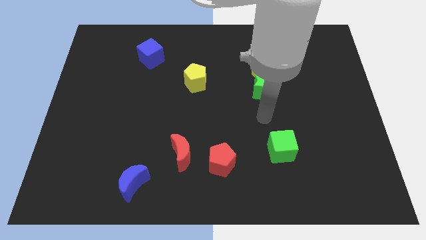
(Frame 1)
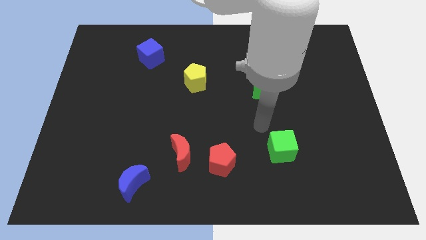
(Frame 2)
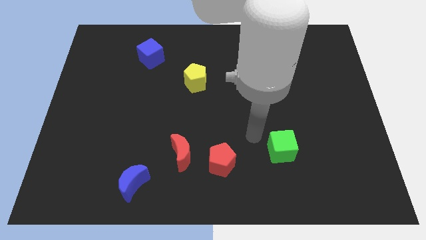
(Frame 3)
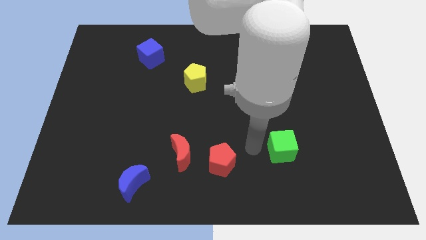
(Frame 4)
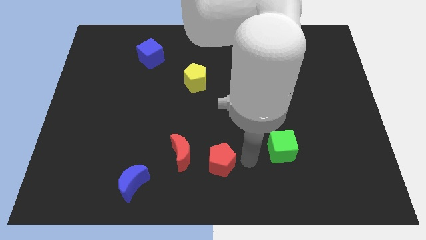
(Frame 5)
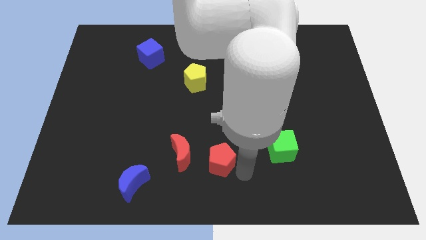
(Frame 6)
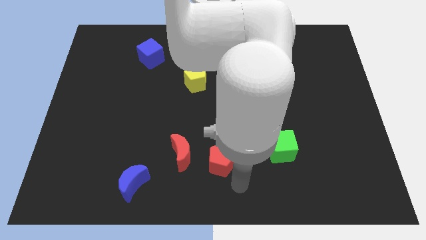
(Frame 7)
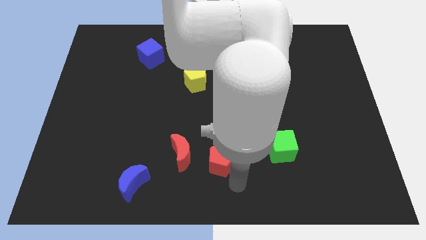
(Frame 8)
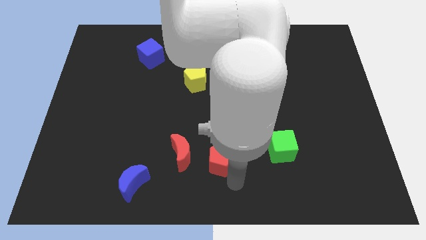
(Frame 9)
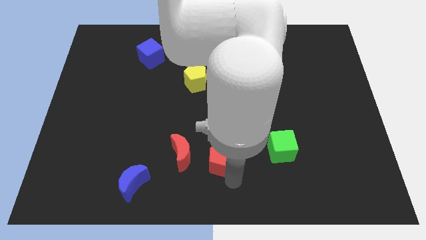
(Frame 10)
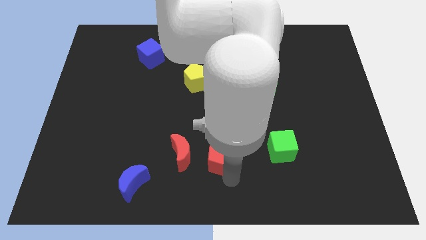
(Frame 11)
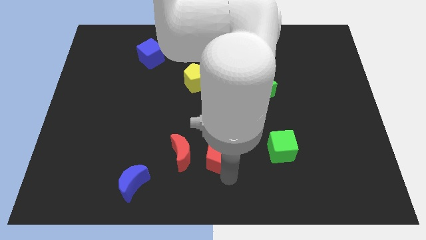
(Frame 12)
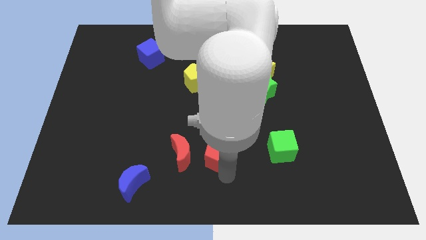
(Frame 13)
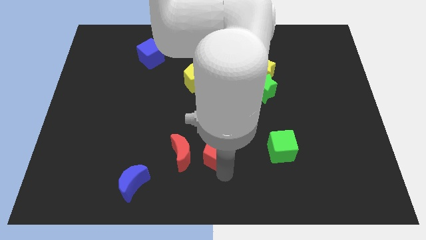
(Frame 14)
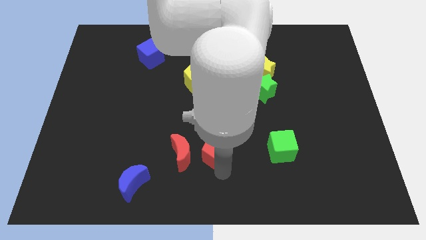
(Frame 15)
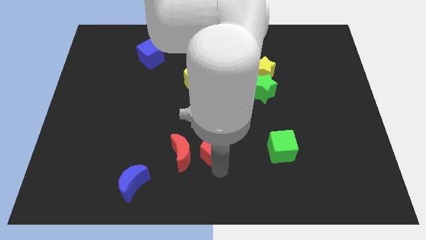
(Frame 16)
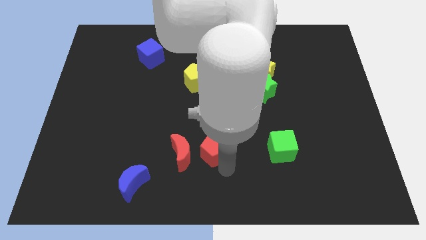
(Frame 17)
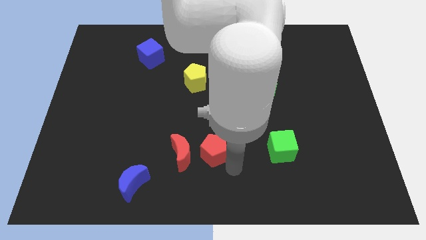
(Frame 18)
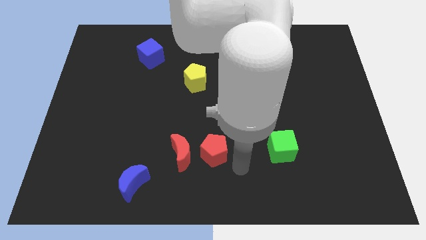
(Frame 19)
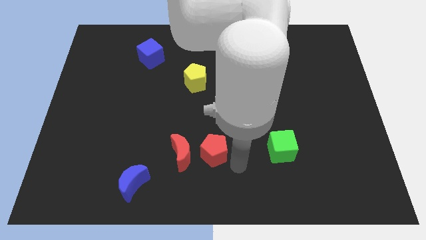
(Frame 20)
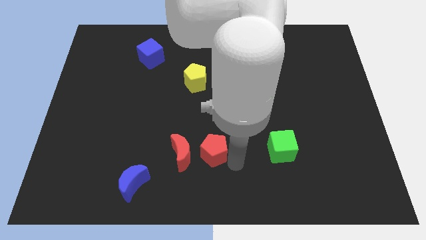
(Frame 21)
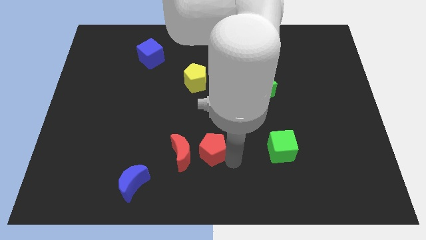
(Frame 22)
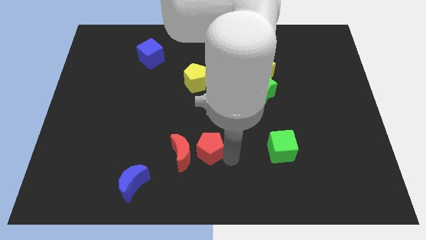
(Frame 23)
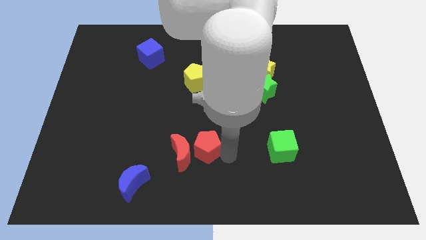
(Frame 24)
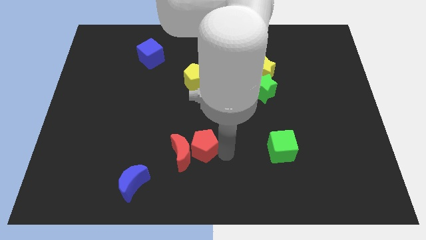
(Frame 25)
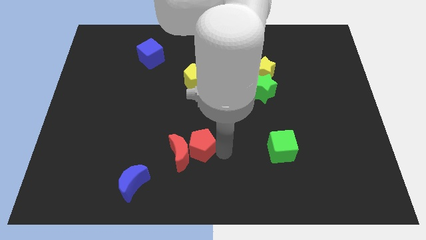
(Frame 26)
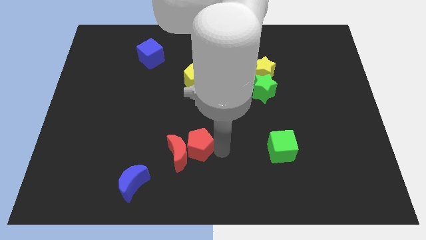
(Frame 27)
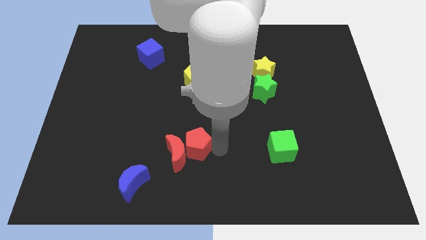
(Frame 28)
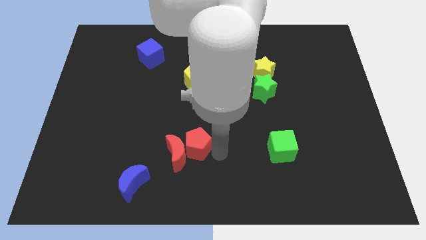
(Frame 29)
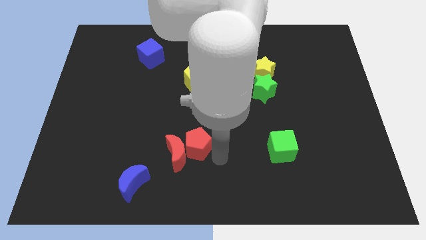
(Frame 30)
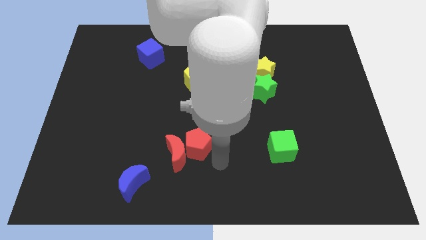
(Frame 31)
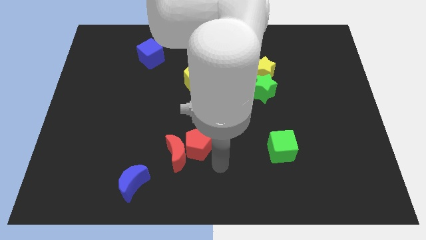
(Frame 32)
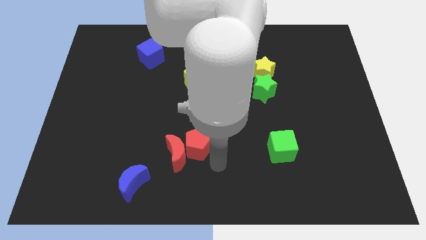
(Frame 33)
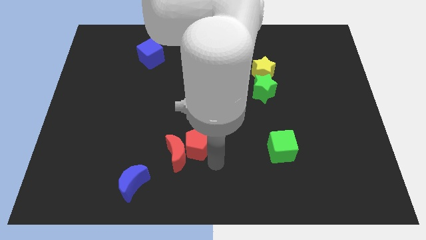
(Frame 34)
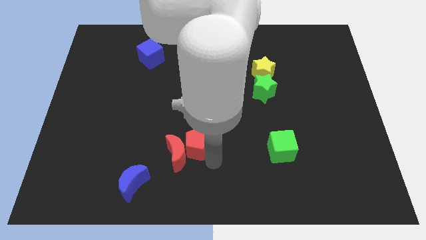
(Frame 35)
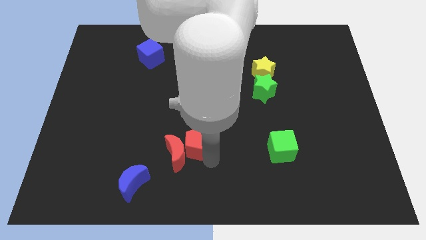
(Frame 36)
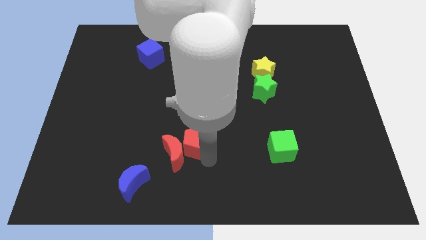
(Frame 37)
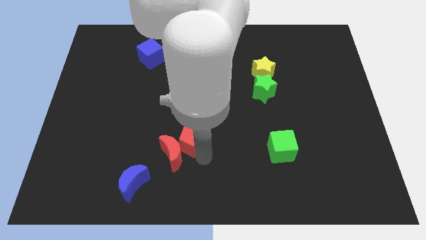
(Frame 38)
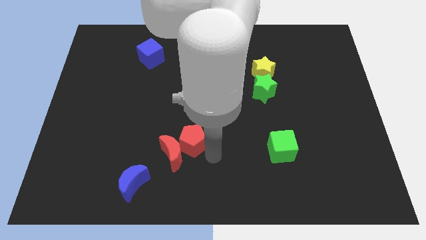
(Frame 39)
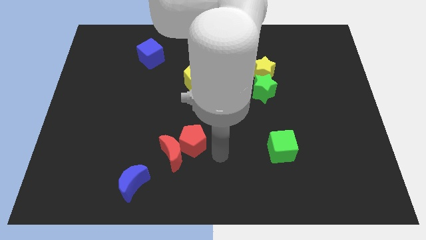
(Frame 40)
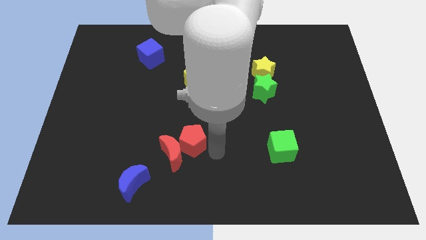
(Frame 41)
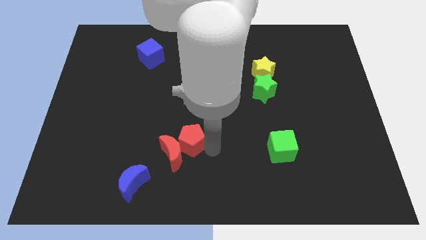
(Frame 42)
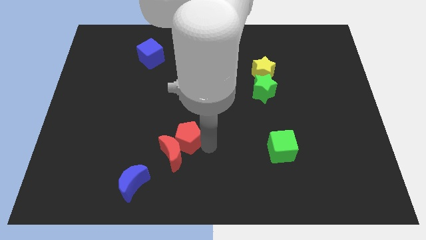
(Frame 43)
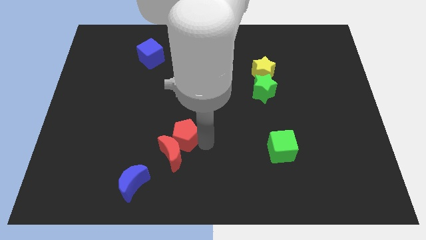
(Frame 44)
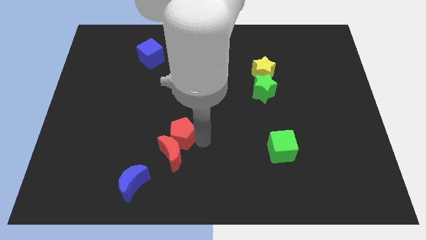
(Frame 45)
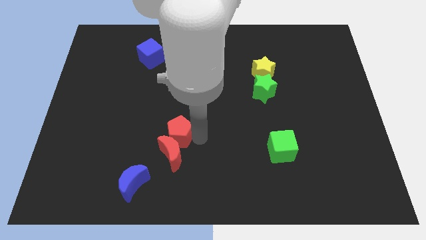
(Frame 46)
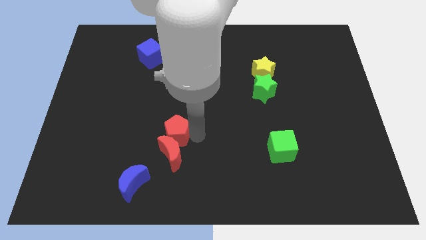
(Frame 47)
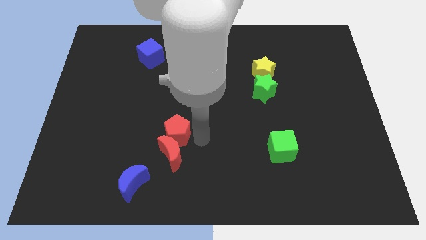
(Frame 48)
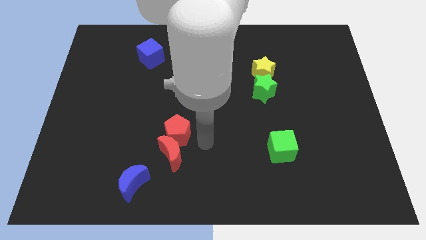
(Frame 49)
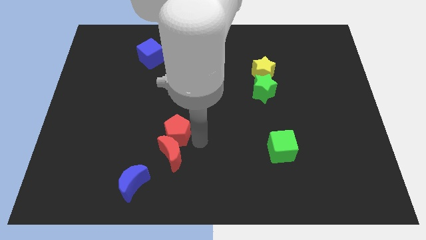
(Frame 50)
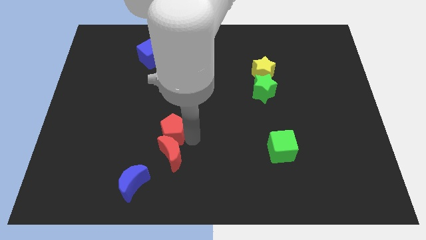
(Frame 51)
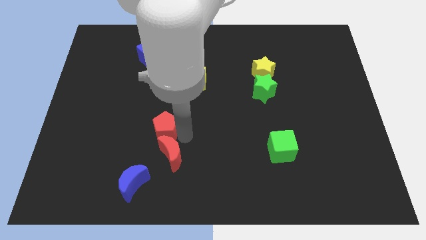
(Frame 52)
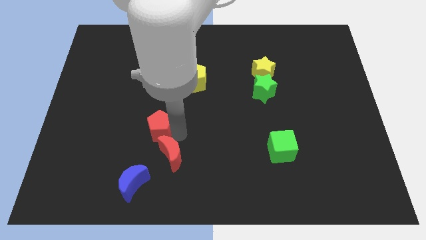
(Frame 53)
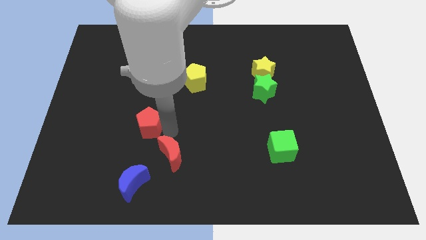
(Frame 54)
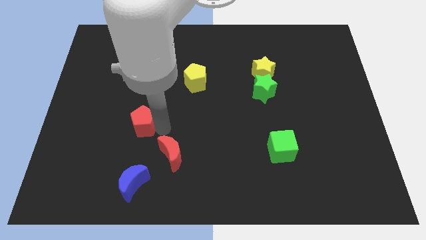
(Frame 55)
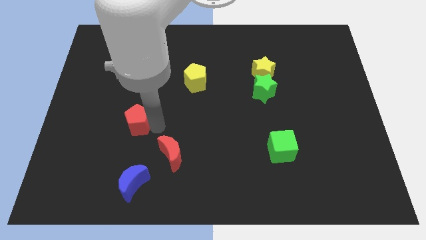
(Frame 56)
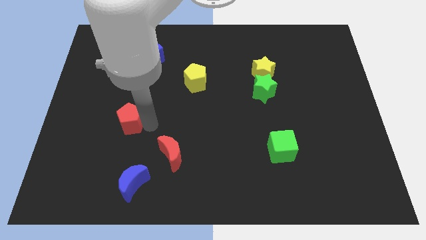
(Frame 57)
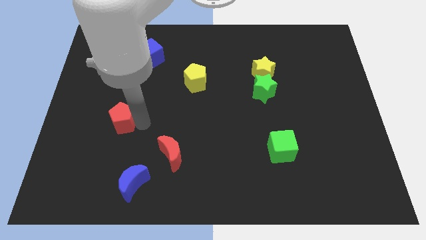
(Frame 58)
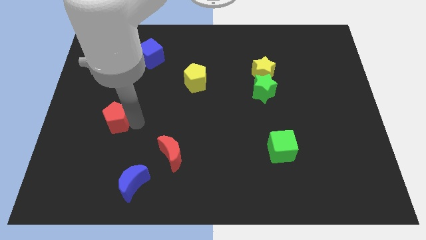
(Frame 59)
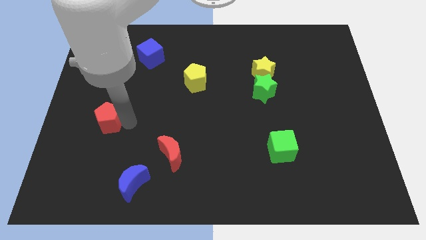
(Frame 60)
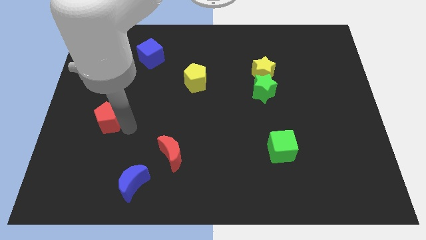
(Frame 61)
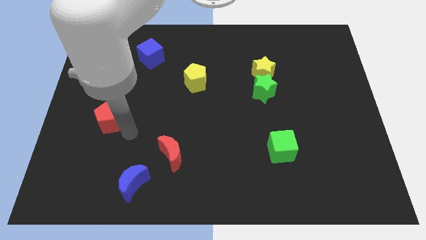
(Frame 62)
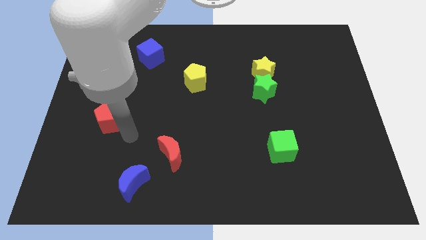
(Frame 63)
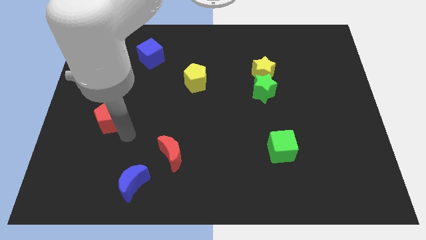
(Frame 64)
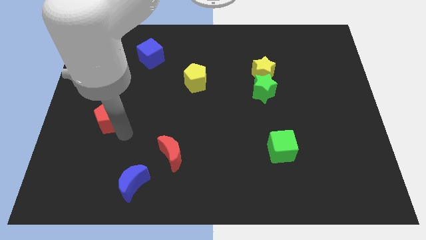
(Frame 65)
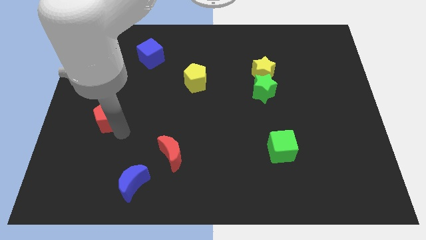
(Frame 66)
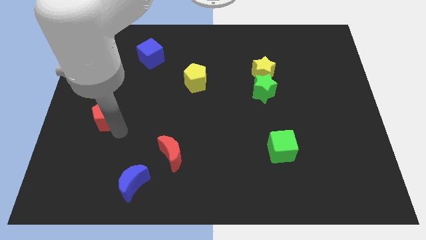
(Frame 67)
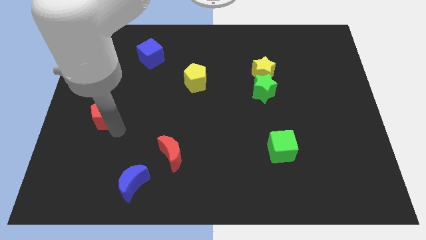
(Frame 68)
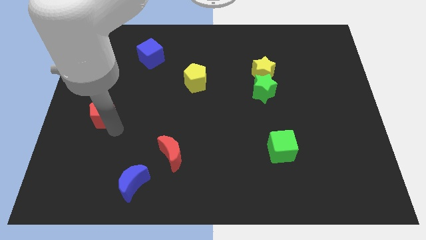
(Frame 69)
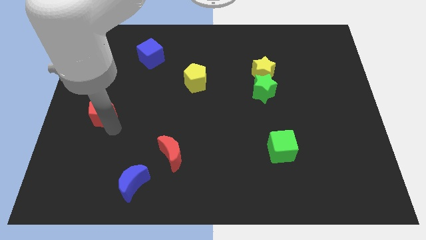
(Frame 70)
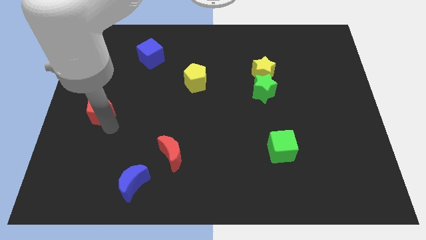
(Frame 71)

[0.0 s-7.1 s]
push the red pentagon to the left side of the board
